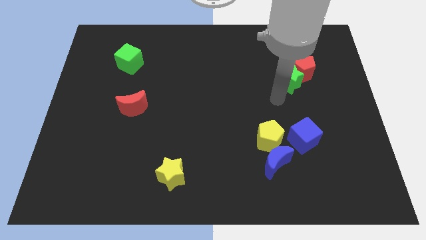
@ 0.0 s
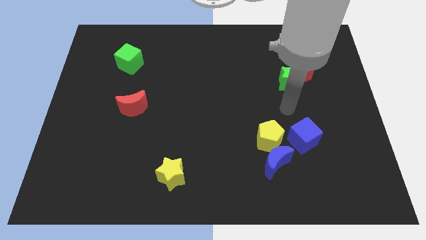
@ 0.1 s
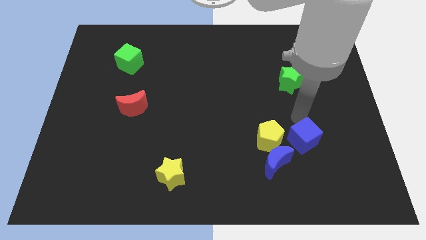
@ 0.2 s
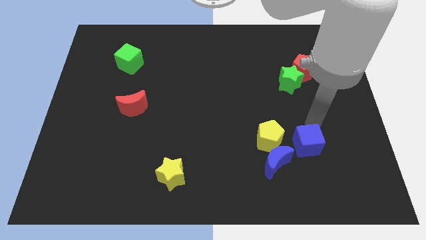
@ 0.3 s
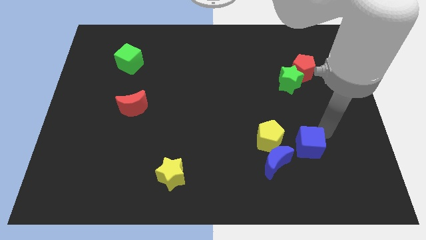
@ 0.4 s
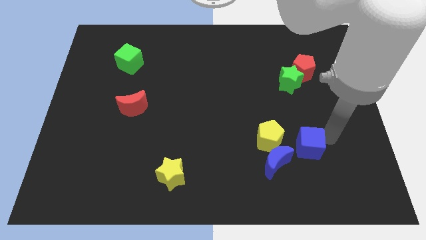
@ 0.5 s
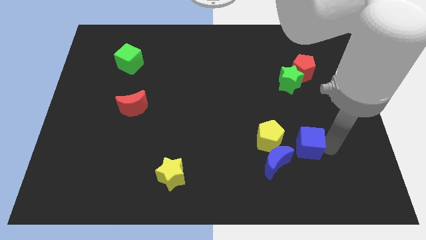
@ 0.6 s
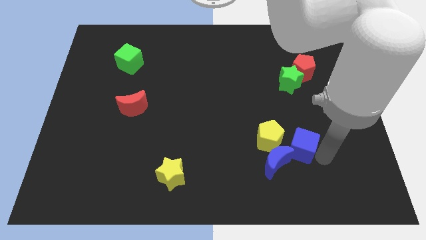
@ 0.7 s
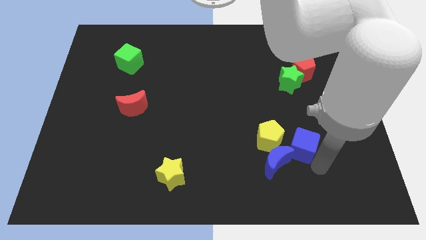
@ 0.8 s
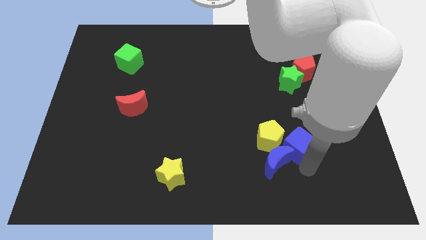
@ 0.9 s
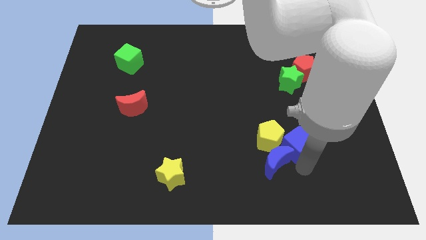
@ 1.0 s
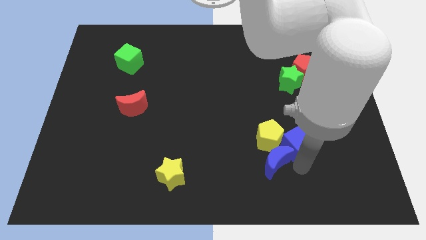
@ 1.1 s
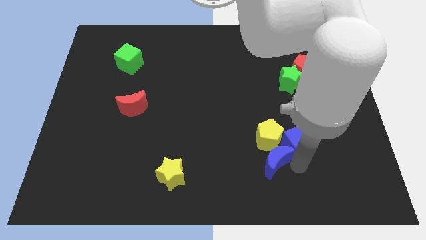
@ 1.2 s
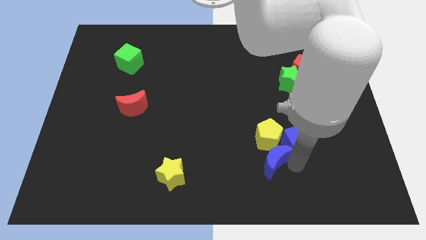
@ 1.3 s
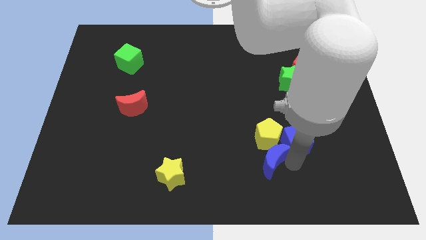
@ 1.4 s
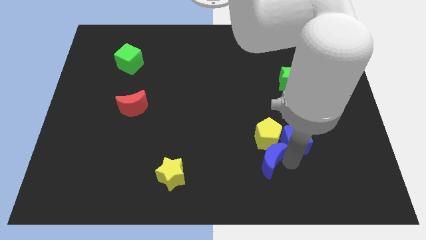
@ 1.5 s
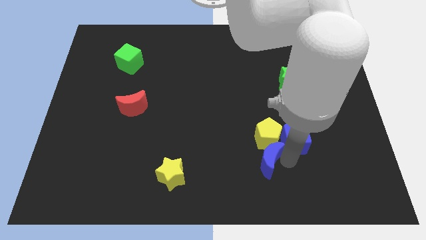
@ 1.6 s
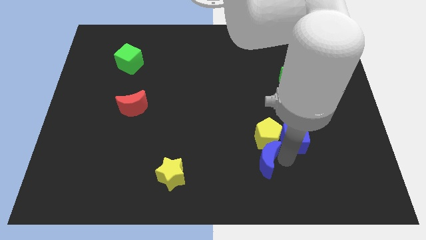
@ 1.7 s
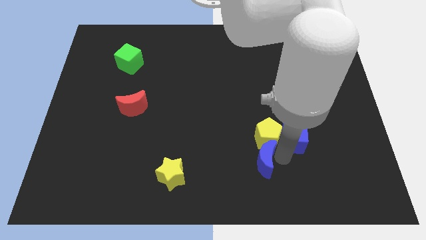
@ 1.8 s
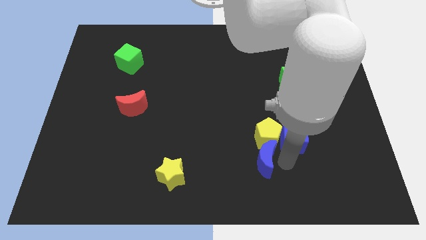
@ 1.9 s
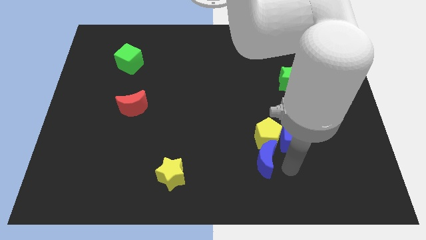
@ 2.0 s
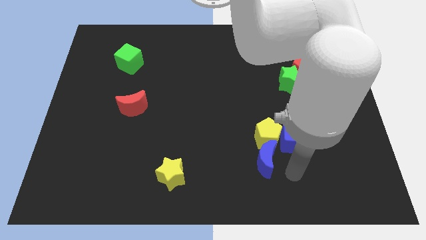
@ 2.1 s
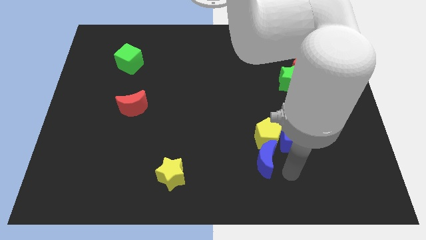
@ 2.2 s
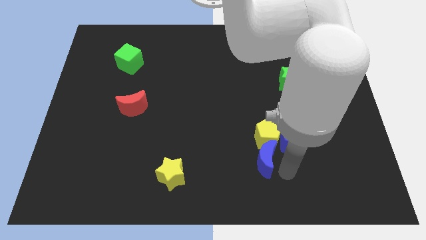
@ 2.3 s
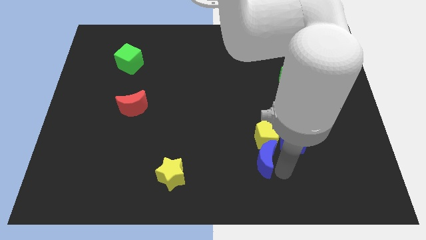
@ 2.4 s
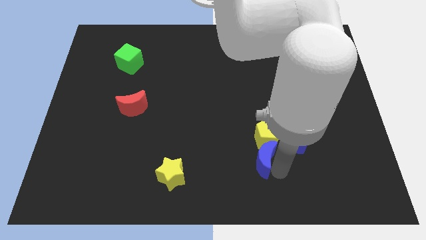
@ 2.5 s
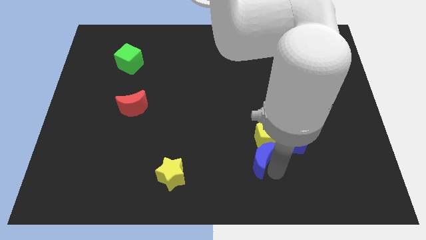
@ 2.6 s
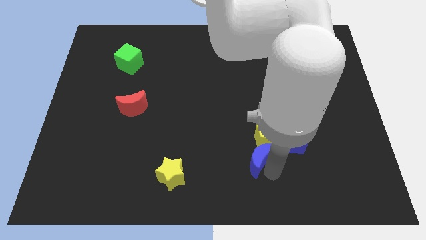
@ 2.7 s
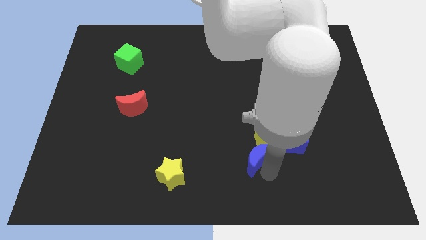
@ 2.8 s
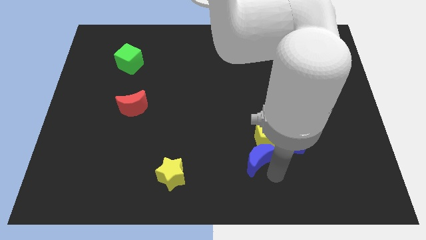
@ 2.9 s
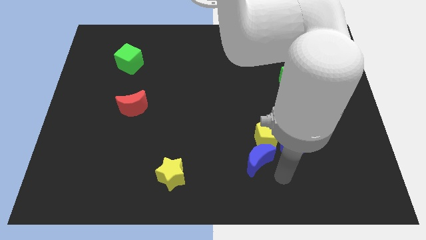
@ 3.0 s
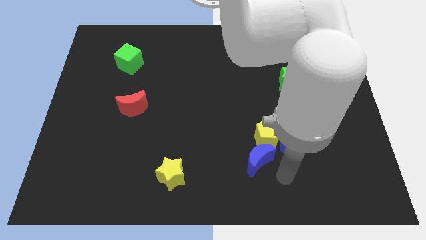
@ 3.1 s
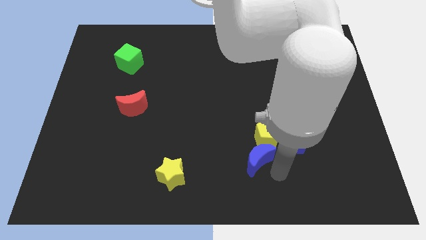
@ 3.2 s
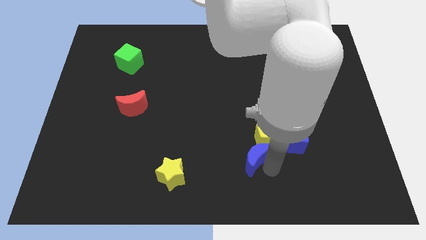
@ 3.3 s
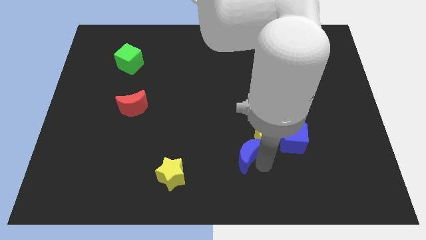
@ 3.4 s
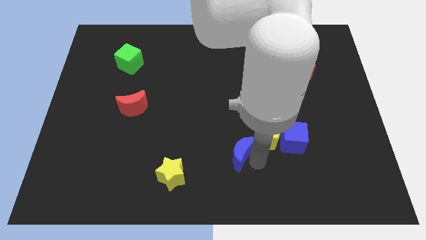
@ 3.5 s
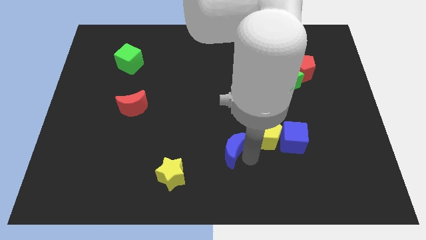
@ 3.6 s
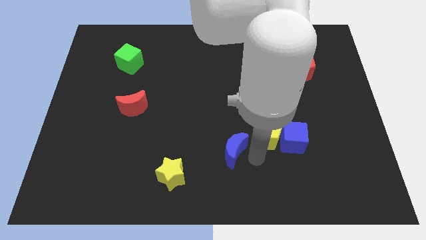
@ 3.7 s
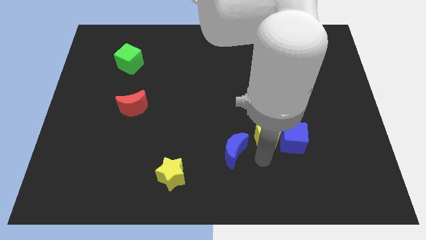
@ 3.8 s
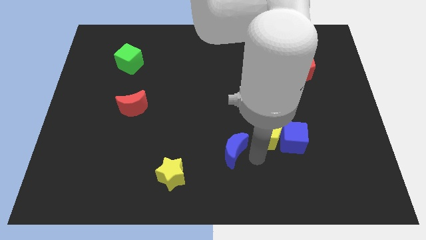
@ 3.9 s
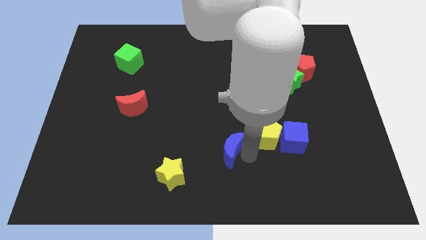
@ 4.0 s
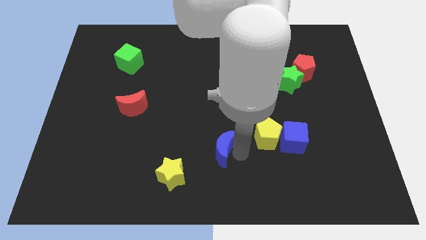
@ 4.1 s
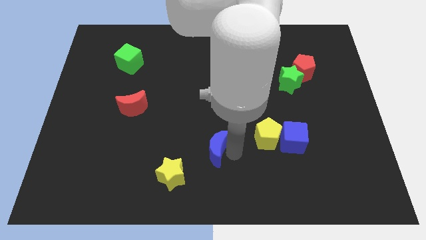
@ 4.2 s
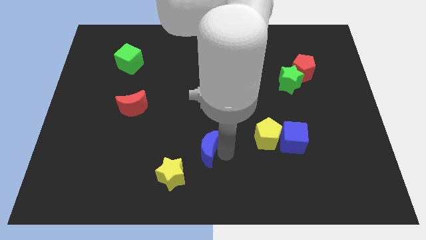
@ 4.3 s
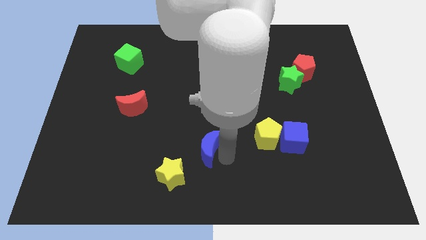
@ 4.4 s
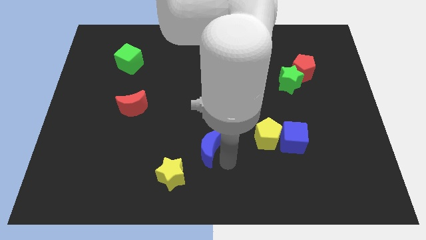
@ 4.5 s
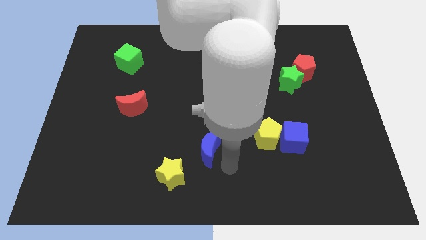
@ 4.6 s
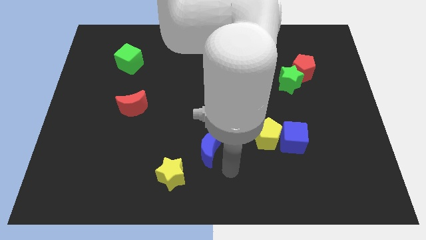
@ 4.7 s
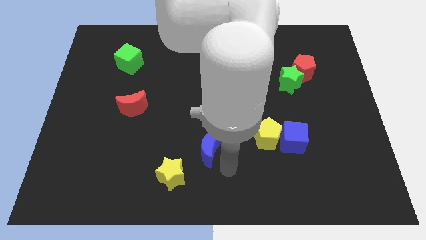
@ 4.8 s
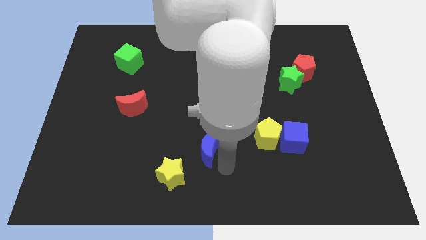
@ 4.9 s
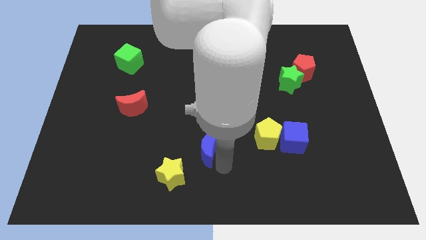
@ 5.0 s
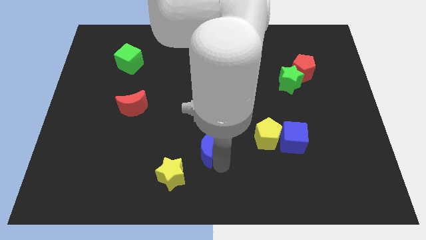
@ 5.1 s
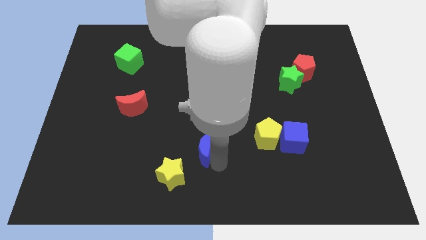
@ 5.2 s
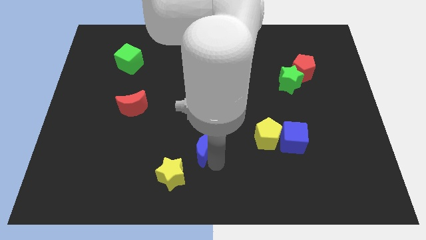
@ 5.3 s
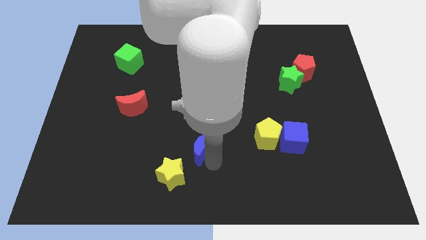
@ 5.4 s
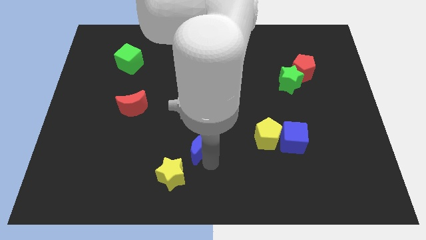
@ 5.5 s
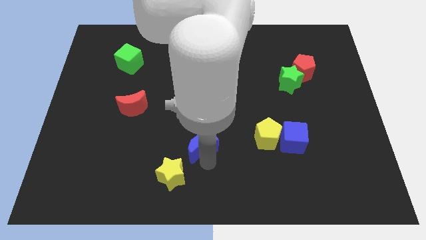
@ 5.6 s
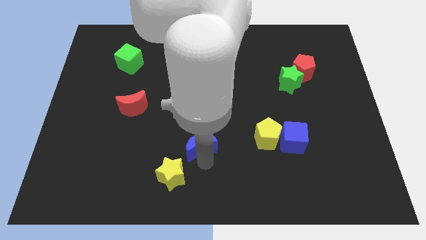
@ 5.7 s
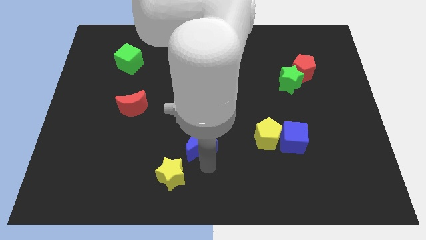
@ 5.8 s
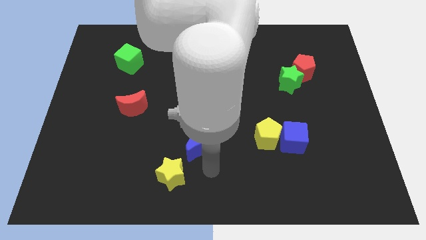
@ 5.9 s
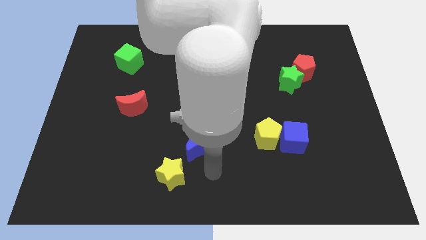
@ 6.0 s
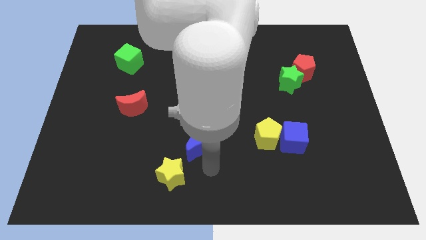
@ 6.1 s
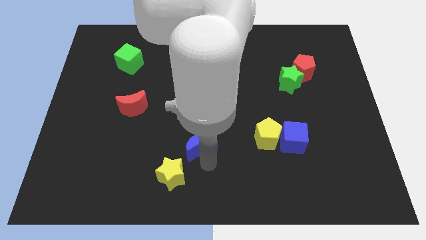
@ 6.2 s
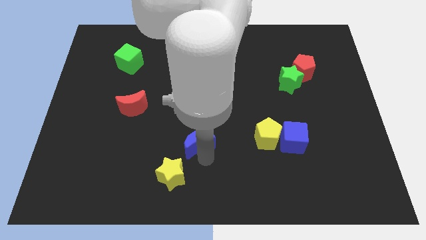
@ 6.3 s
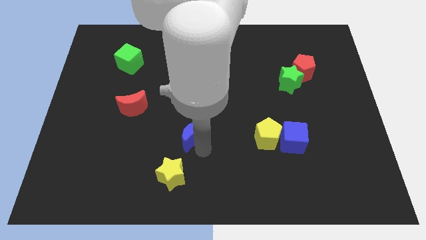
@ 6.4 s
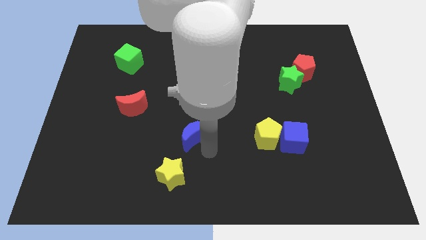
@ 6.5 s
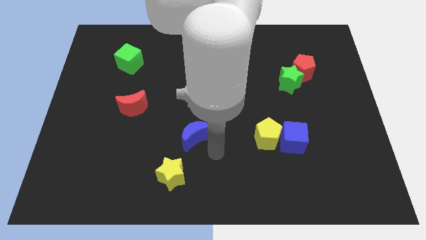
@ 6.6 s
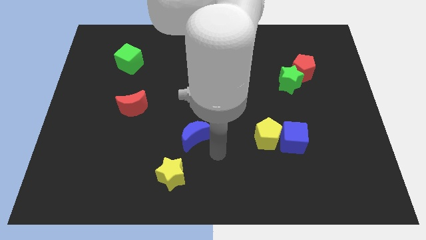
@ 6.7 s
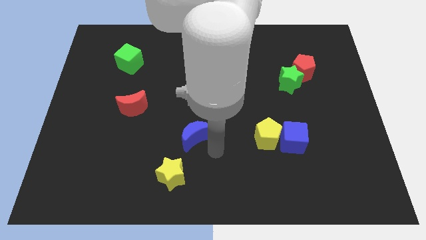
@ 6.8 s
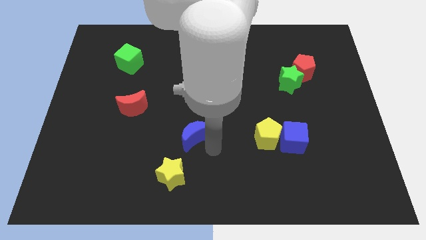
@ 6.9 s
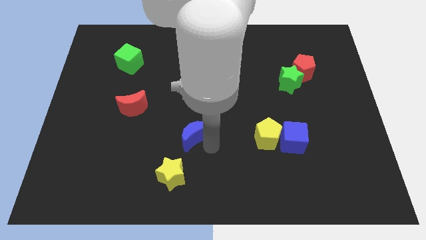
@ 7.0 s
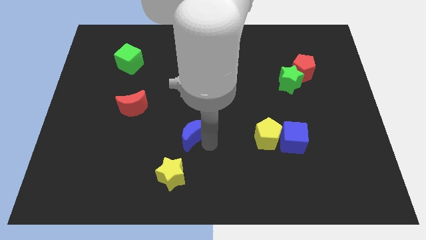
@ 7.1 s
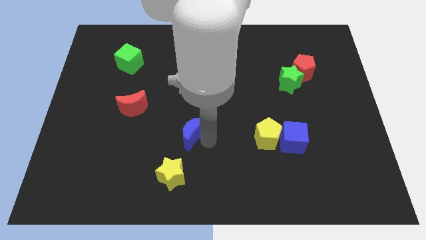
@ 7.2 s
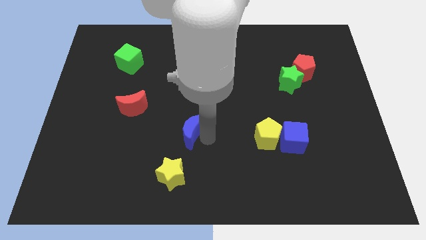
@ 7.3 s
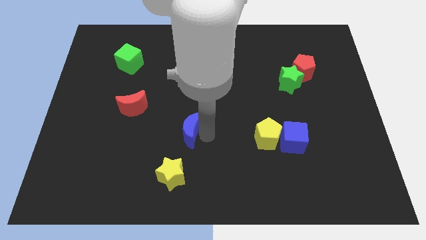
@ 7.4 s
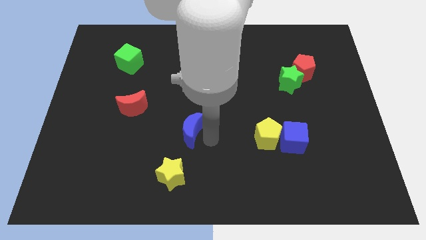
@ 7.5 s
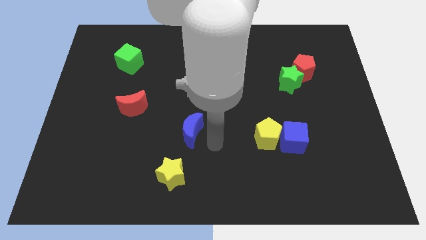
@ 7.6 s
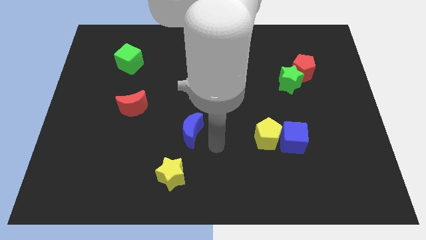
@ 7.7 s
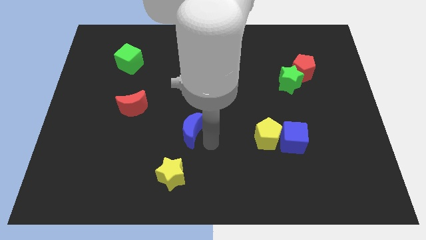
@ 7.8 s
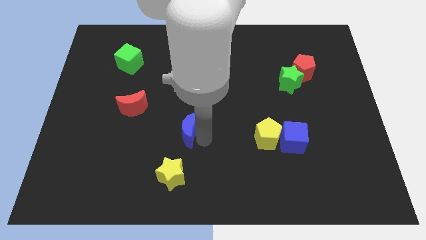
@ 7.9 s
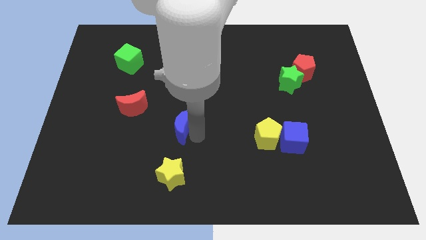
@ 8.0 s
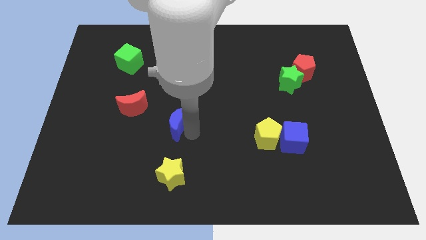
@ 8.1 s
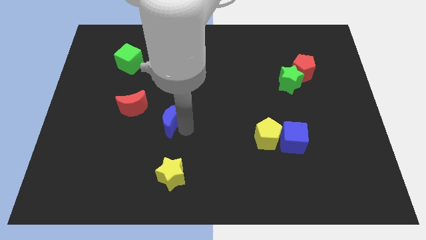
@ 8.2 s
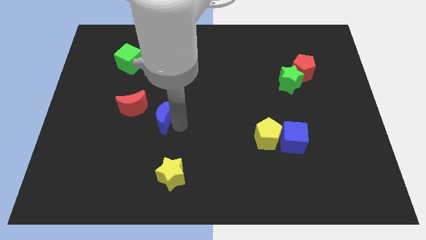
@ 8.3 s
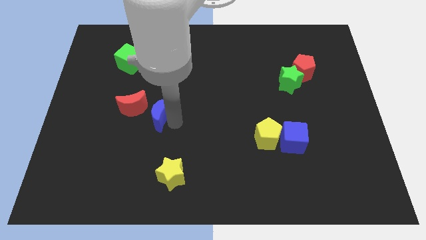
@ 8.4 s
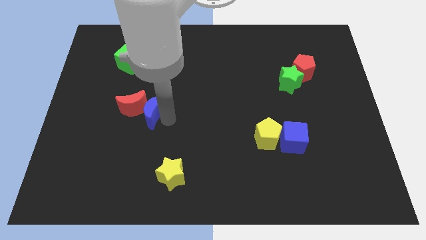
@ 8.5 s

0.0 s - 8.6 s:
slide the blue moon to the red moon
